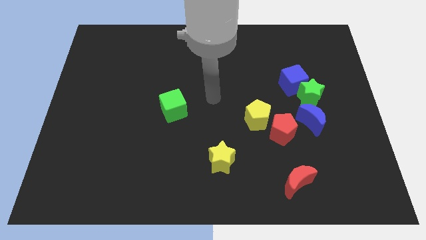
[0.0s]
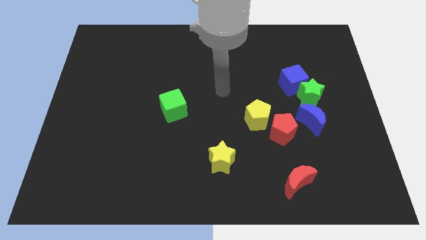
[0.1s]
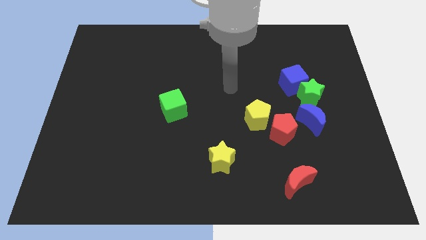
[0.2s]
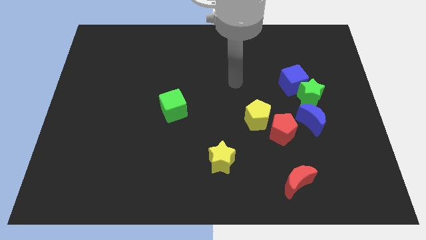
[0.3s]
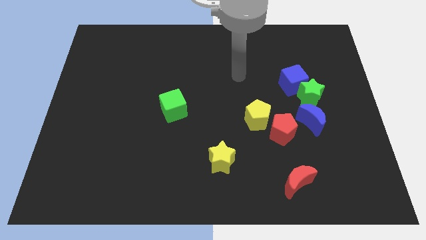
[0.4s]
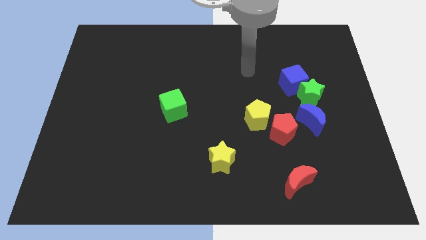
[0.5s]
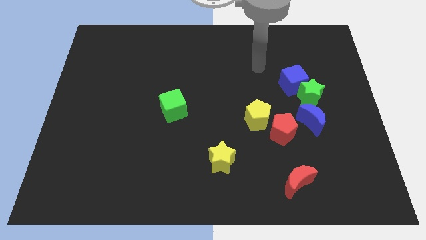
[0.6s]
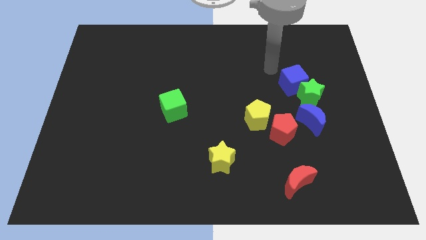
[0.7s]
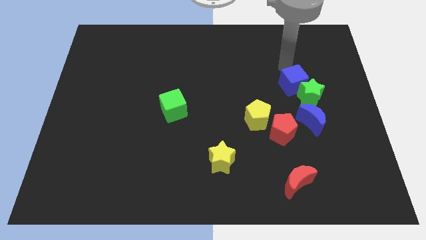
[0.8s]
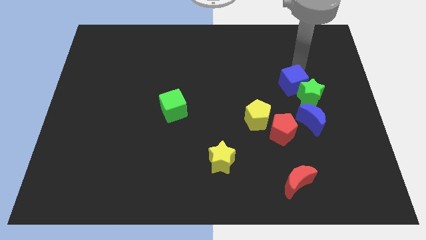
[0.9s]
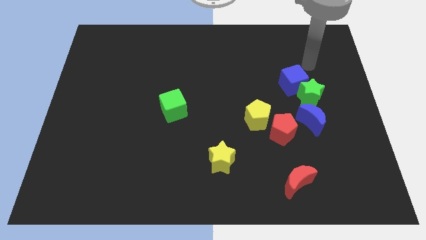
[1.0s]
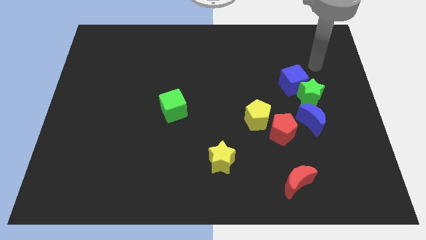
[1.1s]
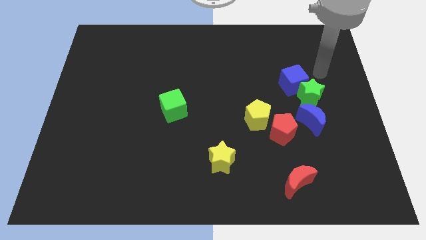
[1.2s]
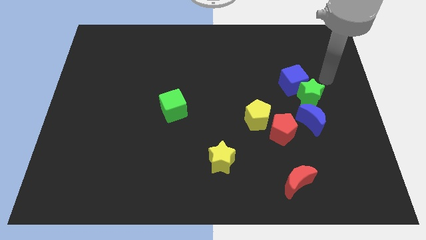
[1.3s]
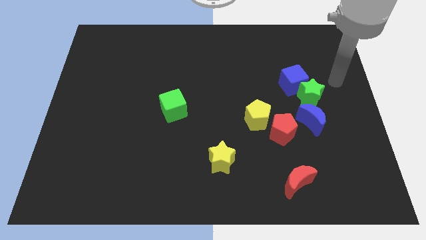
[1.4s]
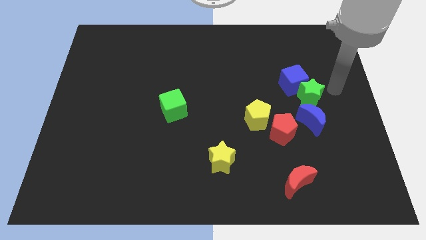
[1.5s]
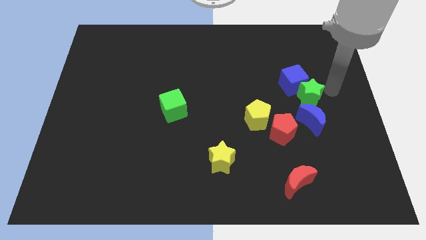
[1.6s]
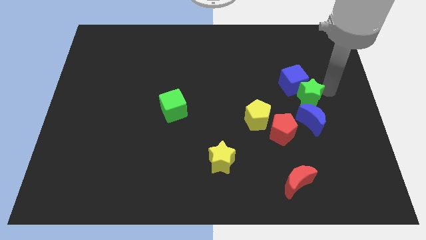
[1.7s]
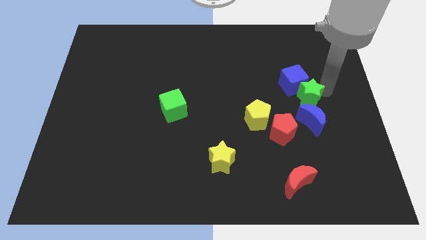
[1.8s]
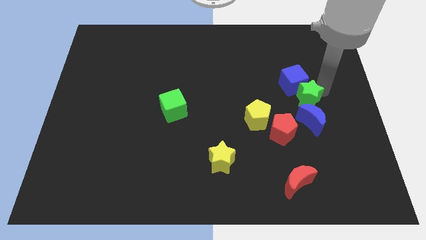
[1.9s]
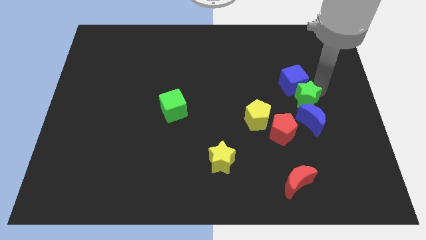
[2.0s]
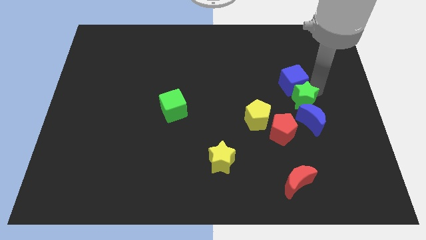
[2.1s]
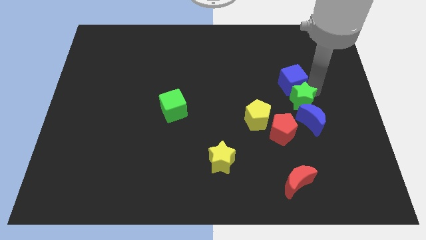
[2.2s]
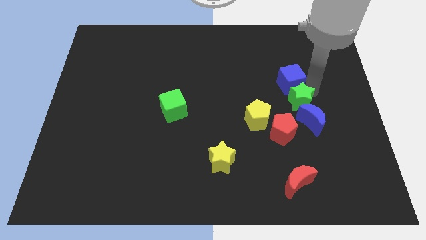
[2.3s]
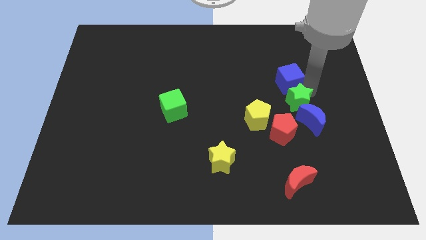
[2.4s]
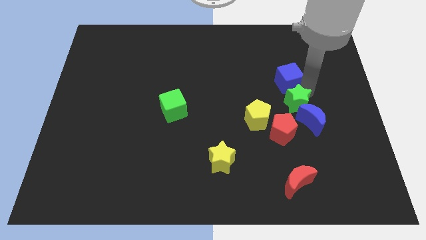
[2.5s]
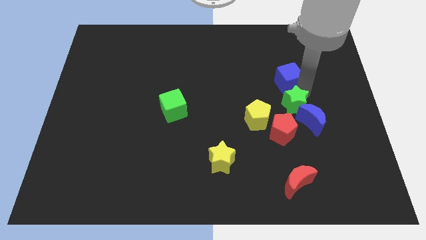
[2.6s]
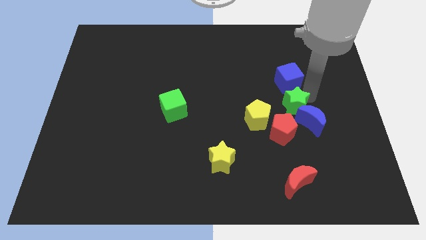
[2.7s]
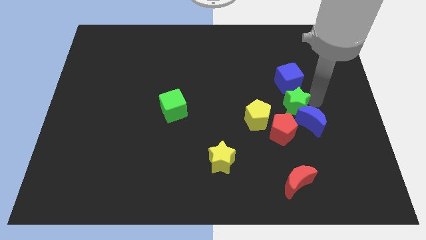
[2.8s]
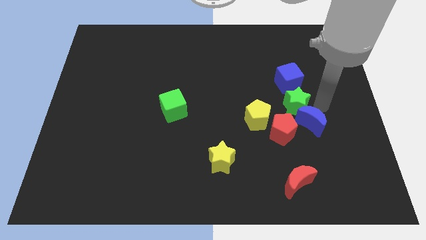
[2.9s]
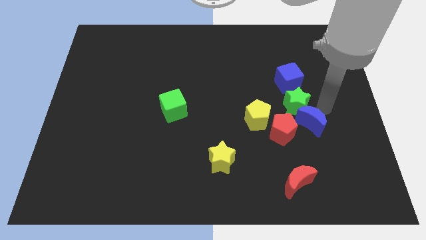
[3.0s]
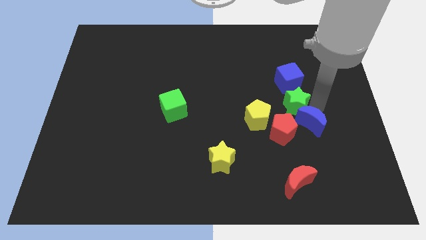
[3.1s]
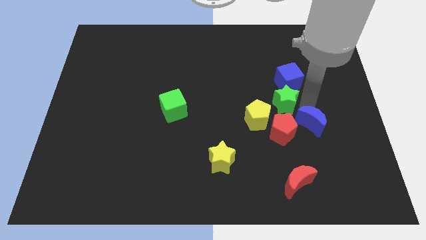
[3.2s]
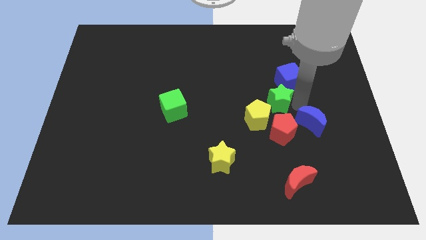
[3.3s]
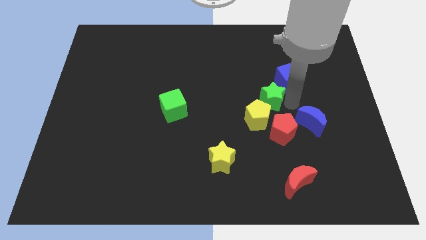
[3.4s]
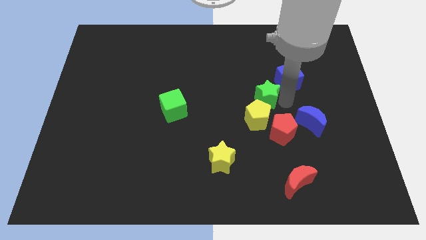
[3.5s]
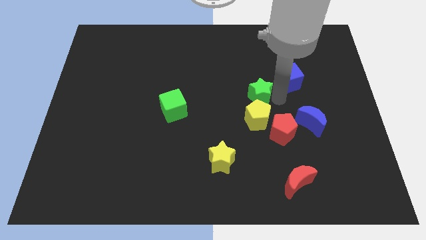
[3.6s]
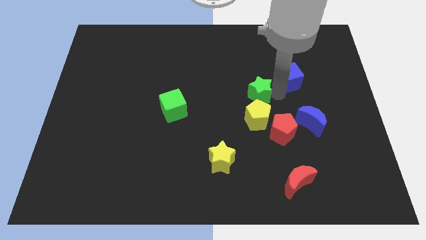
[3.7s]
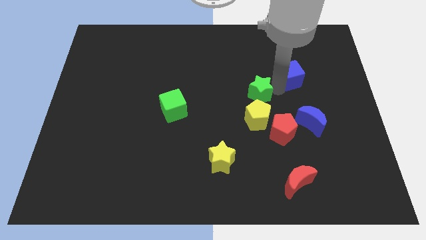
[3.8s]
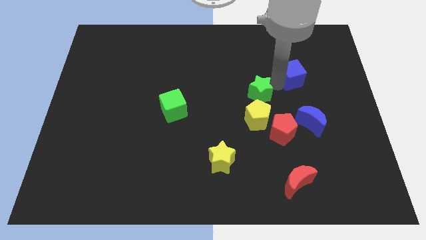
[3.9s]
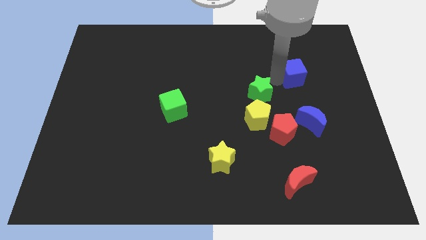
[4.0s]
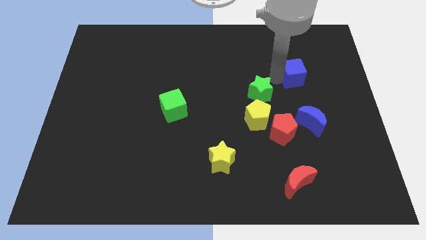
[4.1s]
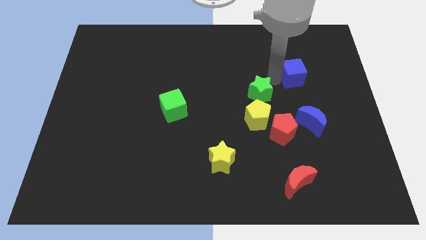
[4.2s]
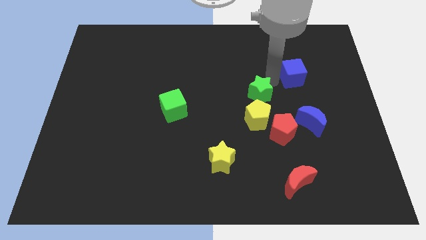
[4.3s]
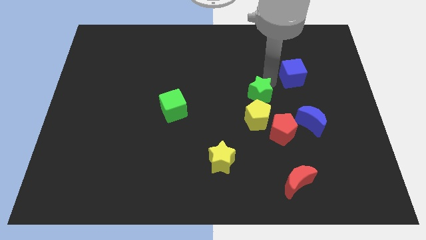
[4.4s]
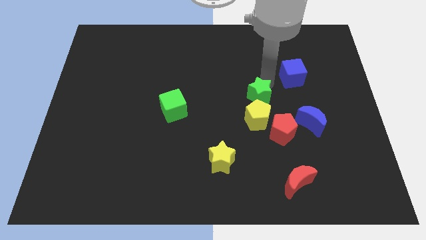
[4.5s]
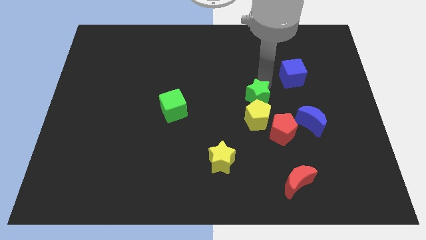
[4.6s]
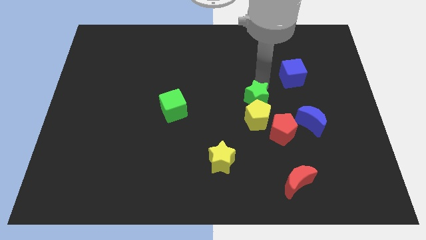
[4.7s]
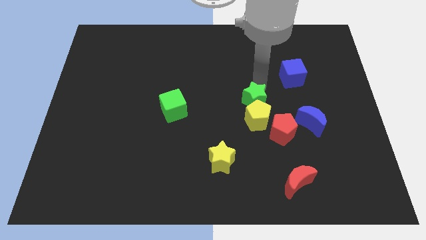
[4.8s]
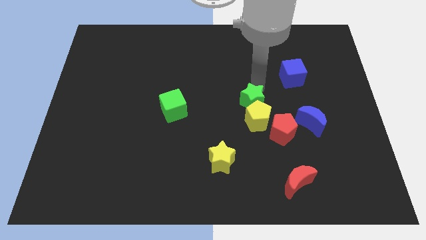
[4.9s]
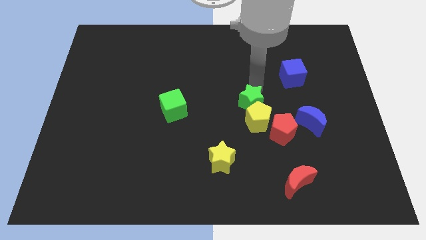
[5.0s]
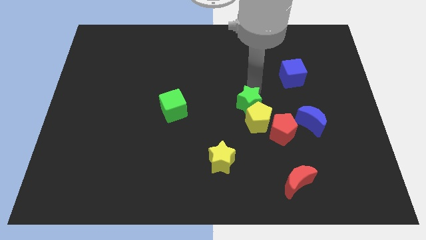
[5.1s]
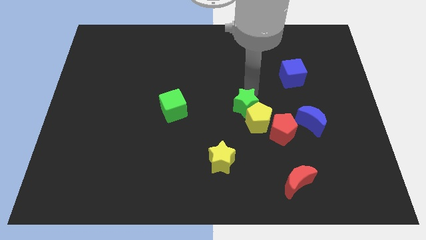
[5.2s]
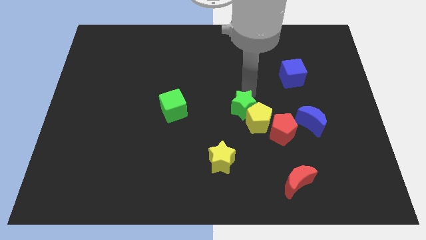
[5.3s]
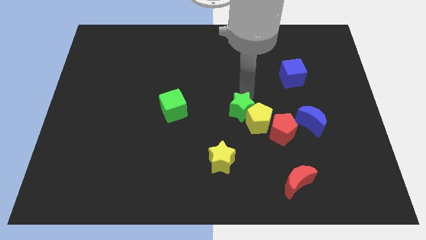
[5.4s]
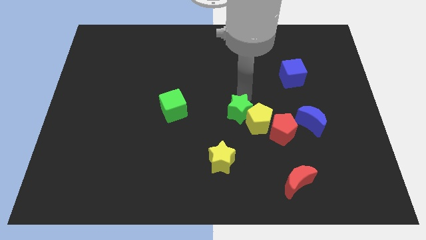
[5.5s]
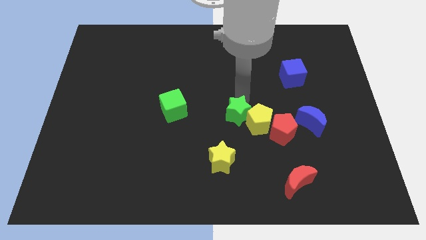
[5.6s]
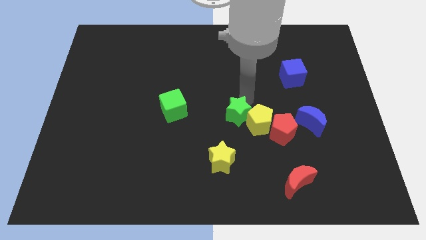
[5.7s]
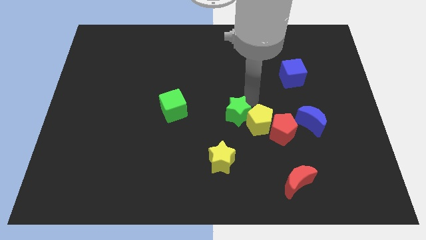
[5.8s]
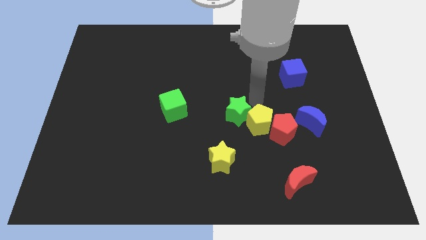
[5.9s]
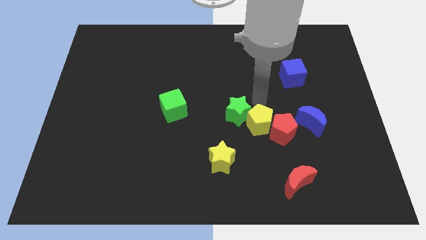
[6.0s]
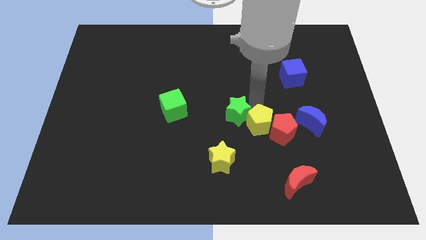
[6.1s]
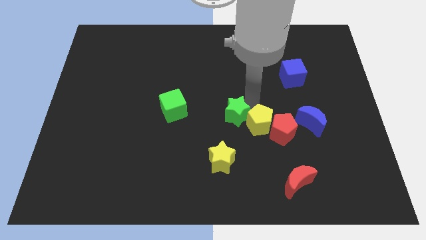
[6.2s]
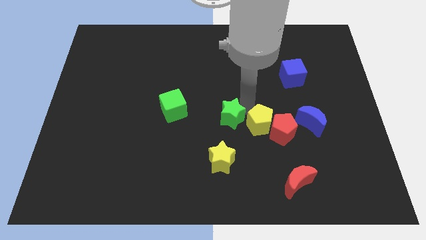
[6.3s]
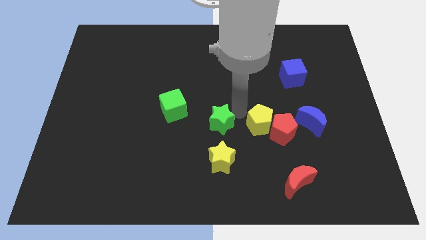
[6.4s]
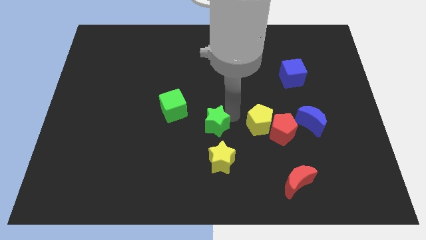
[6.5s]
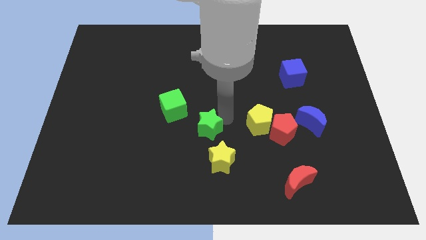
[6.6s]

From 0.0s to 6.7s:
move the green star to the top left of the yellow star
